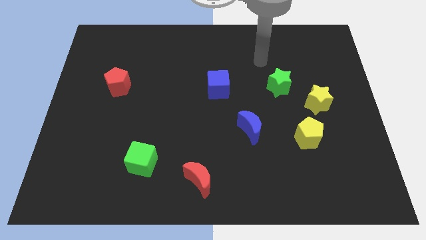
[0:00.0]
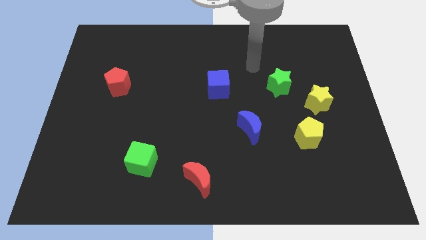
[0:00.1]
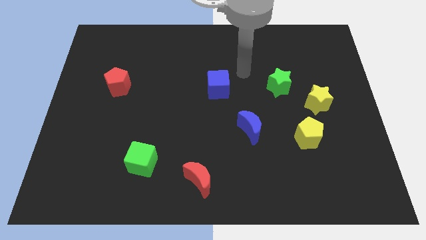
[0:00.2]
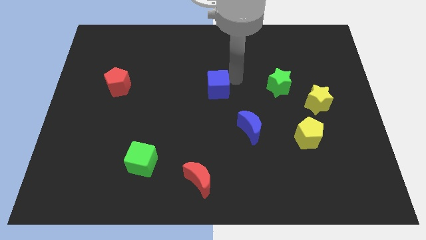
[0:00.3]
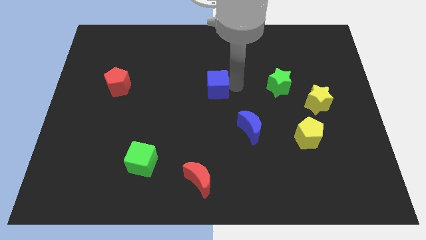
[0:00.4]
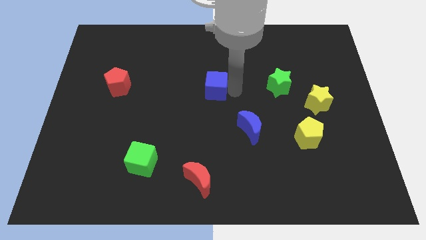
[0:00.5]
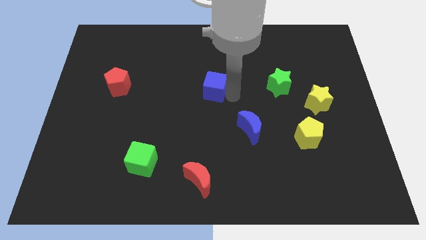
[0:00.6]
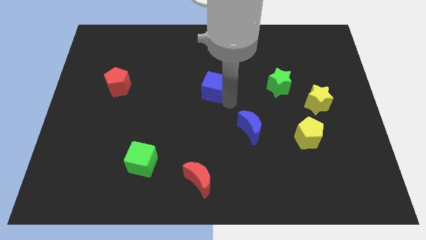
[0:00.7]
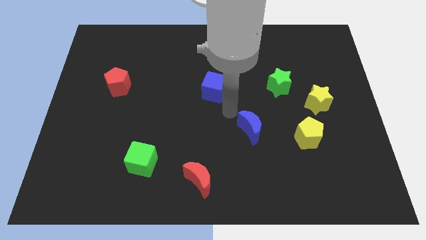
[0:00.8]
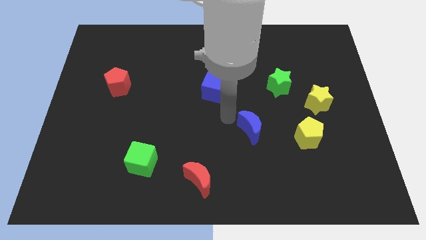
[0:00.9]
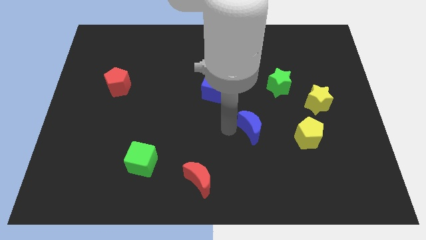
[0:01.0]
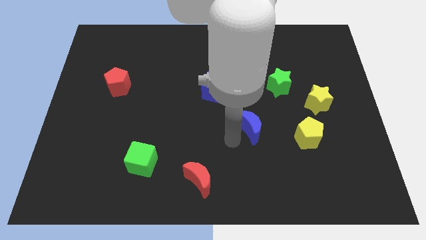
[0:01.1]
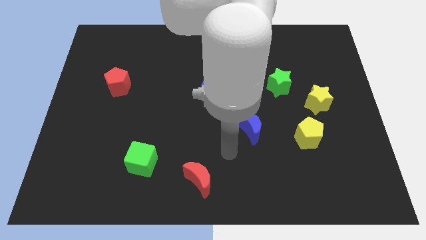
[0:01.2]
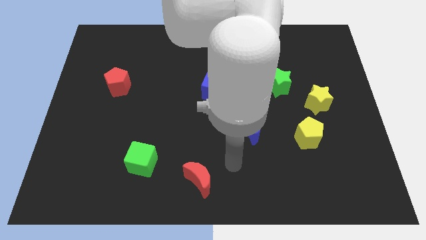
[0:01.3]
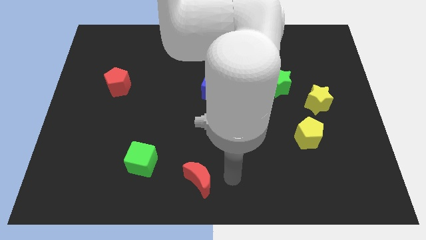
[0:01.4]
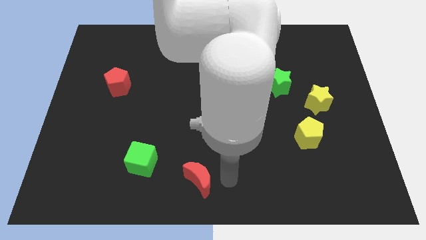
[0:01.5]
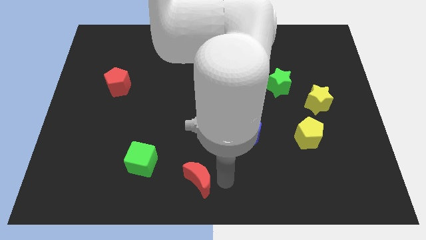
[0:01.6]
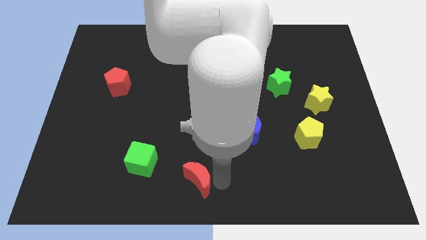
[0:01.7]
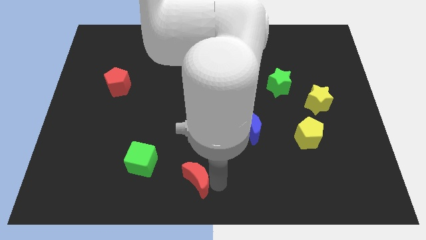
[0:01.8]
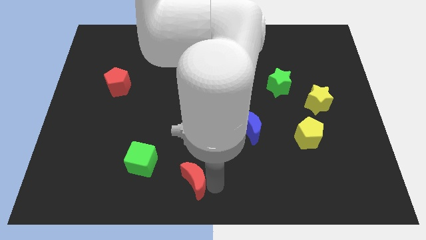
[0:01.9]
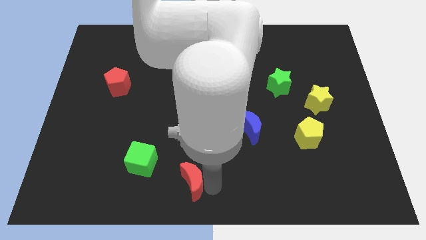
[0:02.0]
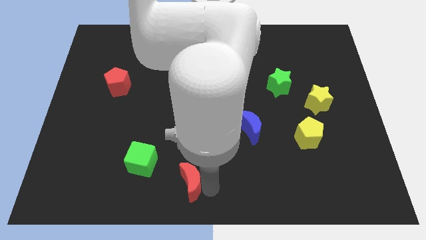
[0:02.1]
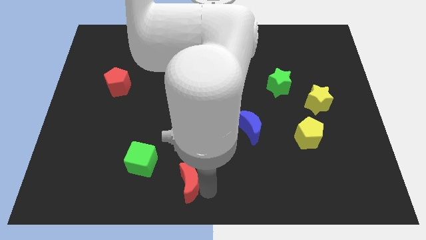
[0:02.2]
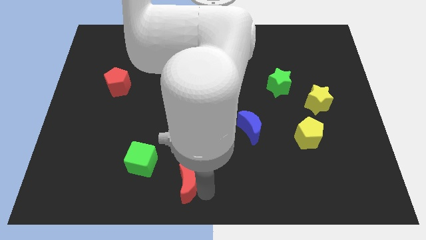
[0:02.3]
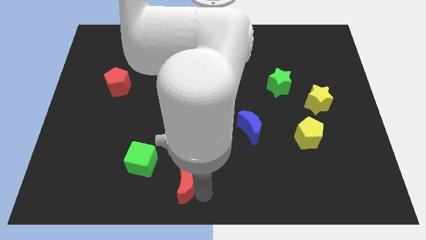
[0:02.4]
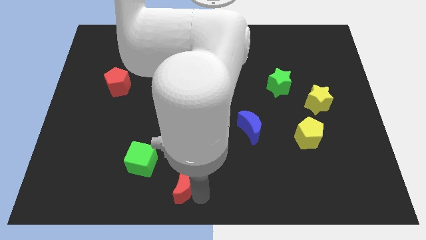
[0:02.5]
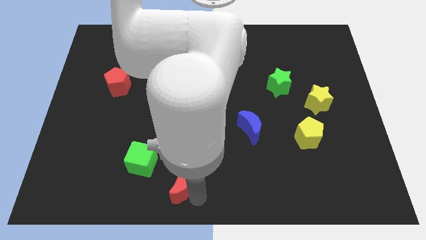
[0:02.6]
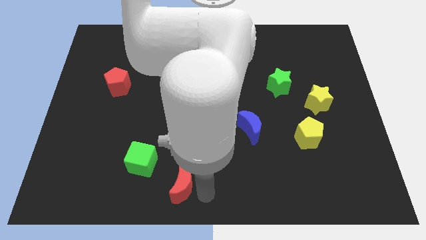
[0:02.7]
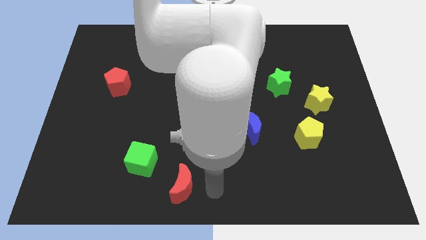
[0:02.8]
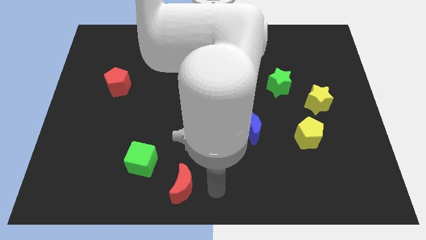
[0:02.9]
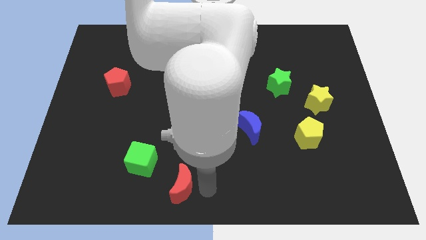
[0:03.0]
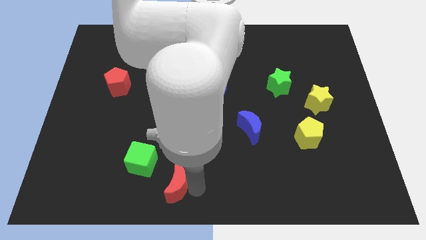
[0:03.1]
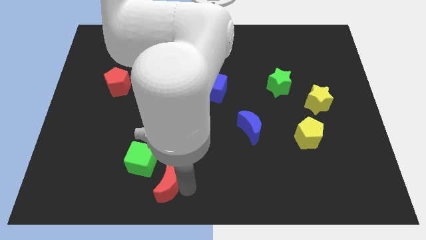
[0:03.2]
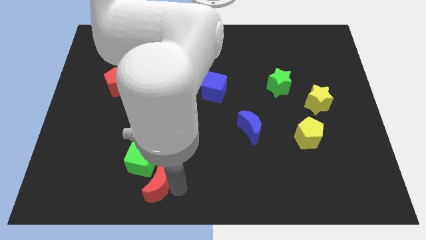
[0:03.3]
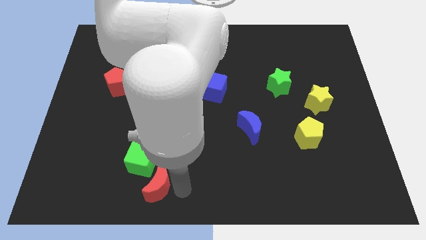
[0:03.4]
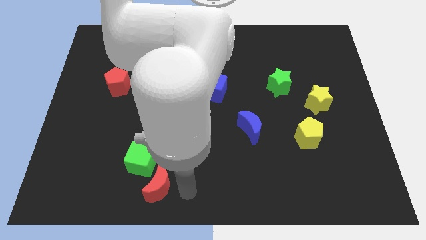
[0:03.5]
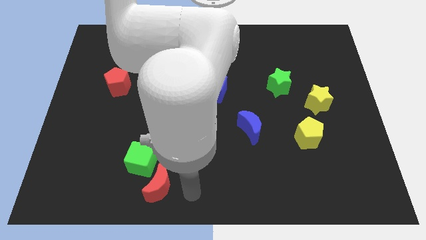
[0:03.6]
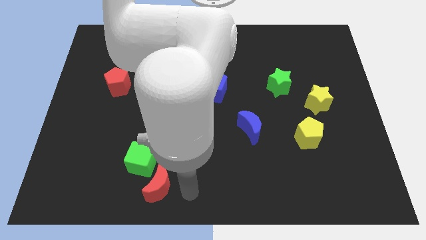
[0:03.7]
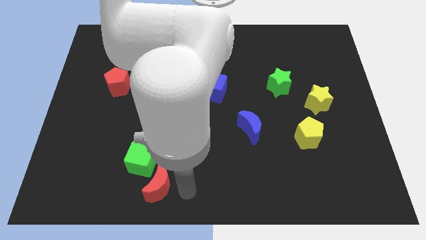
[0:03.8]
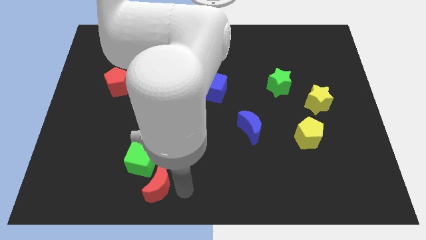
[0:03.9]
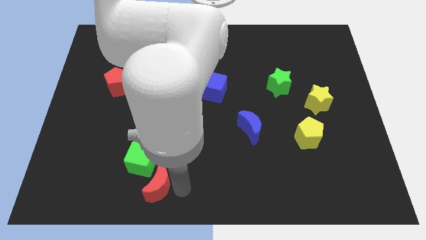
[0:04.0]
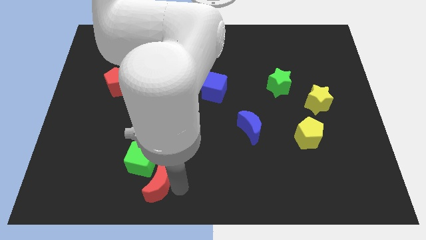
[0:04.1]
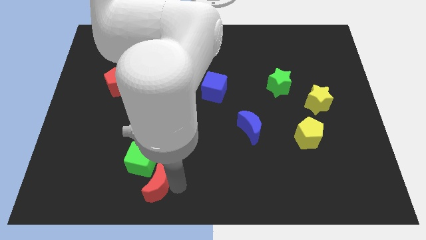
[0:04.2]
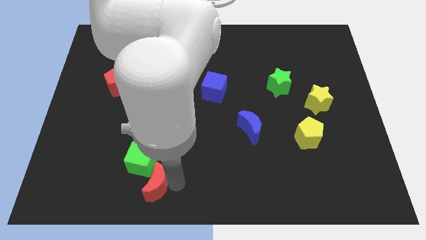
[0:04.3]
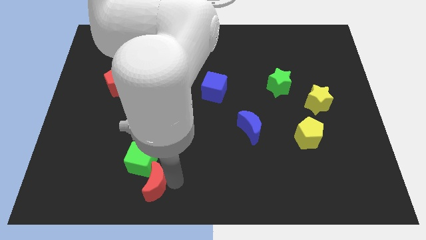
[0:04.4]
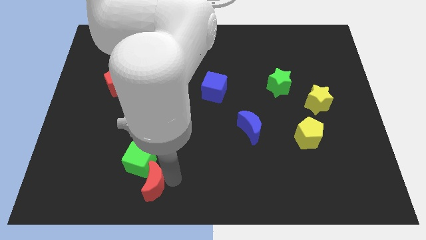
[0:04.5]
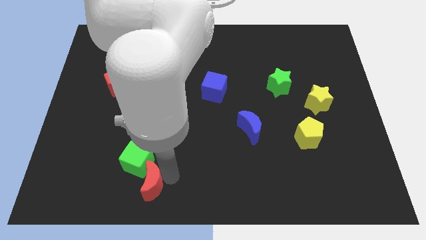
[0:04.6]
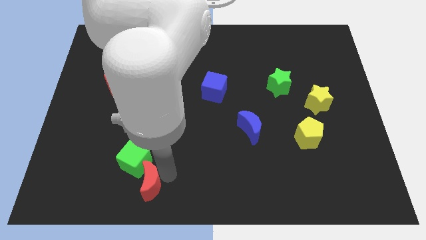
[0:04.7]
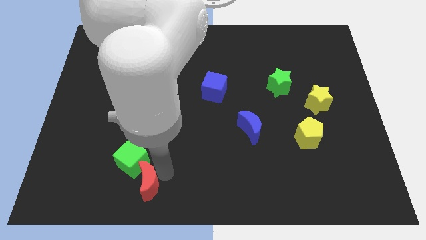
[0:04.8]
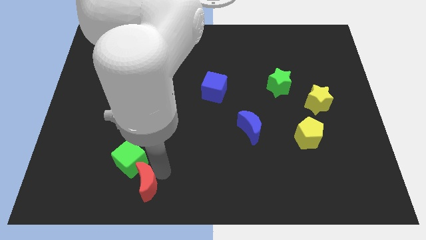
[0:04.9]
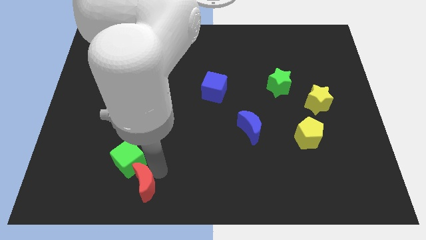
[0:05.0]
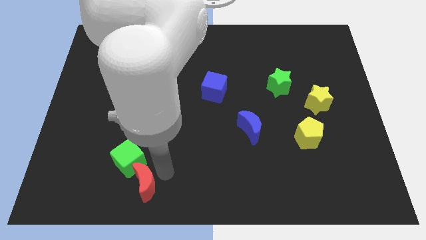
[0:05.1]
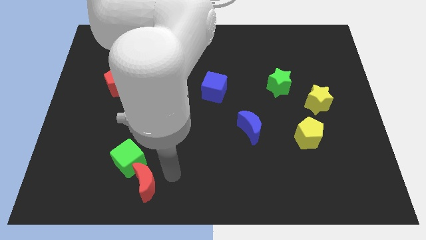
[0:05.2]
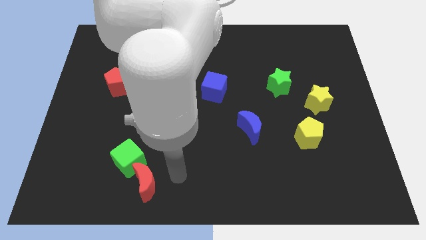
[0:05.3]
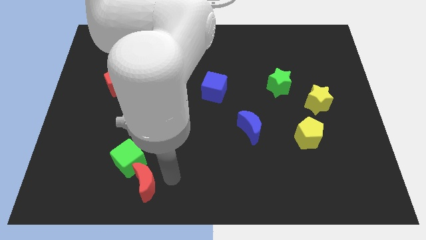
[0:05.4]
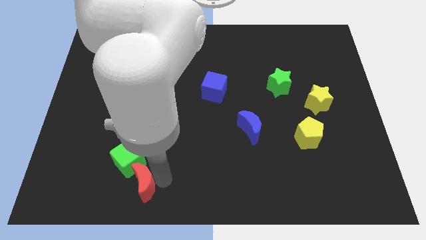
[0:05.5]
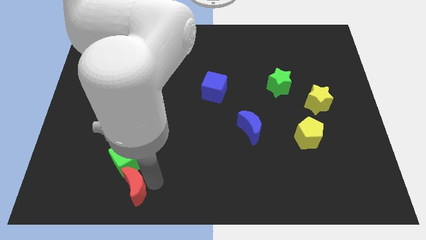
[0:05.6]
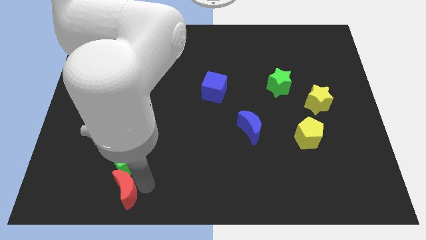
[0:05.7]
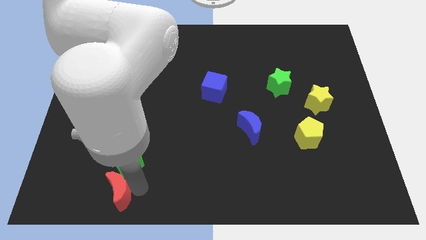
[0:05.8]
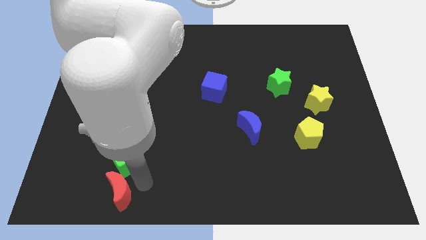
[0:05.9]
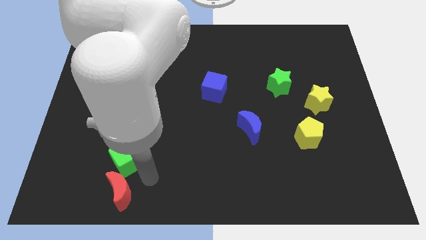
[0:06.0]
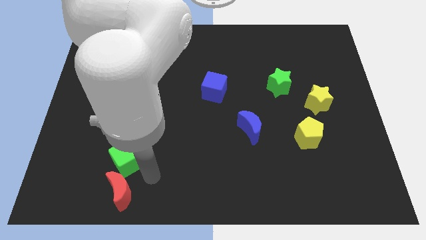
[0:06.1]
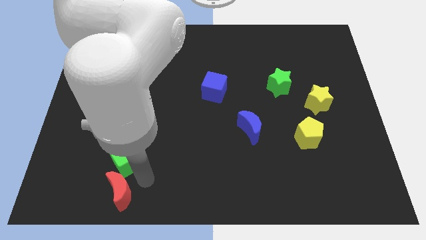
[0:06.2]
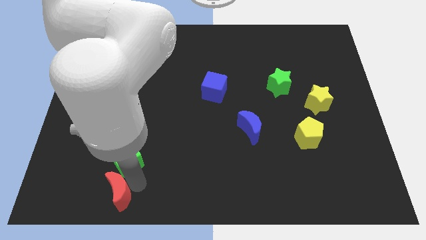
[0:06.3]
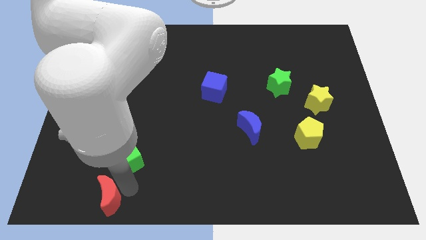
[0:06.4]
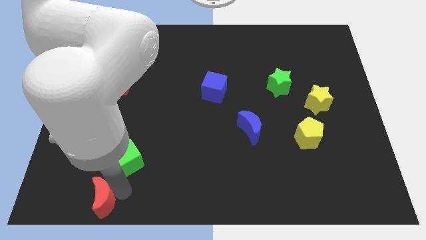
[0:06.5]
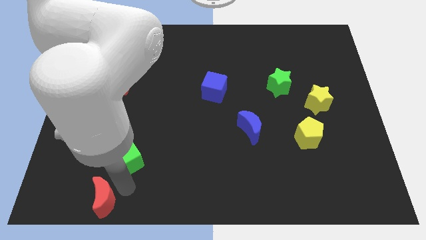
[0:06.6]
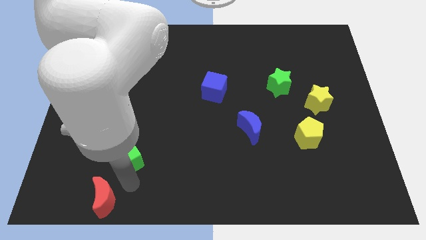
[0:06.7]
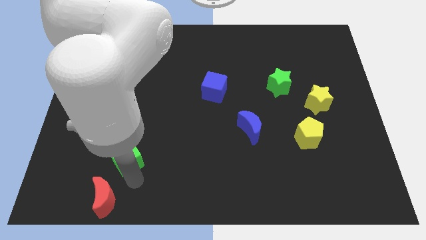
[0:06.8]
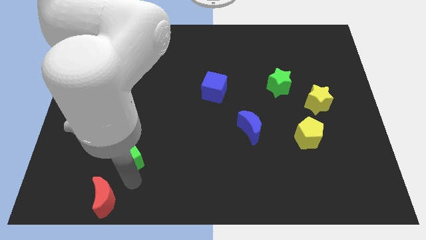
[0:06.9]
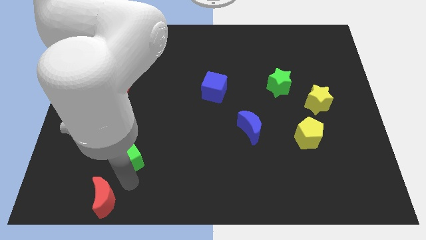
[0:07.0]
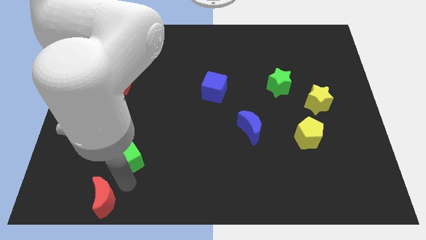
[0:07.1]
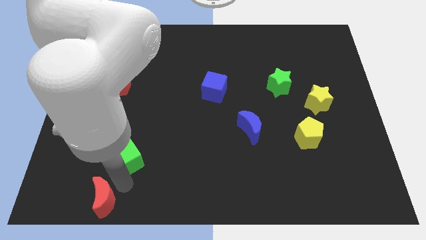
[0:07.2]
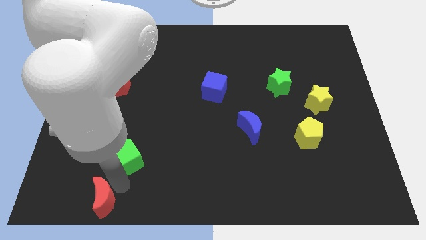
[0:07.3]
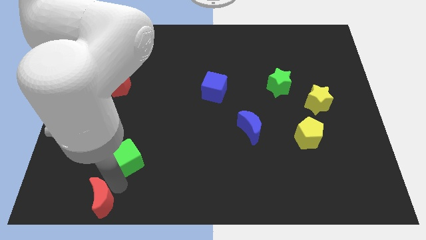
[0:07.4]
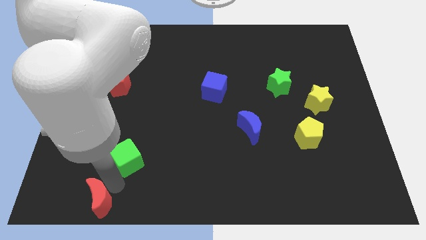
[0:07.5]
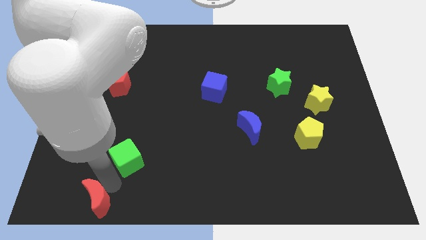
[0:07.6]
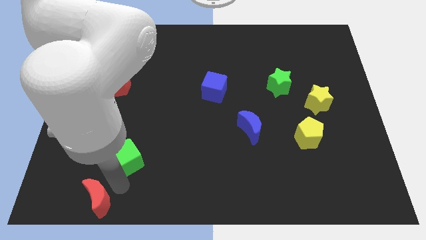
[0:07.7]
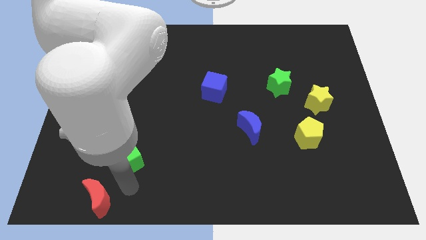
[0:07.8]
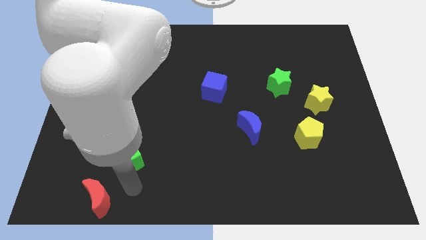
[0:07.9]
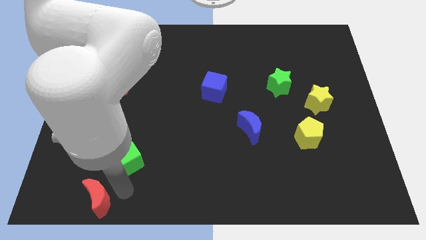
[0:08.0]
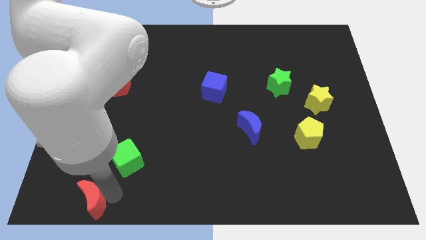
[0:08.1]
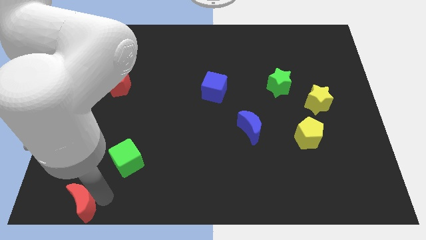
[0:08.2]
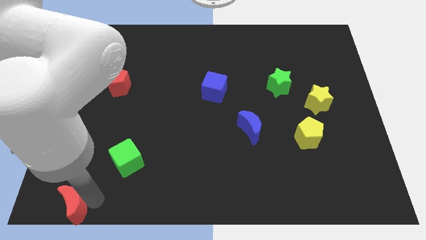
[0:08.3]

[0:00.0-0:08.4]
slide the red moon to the lower left corner
